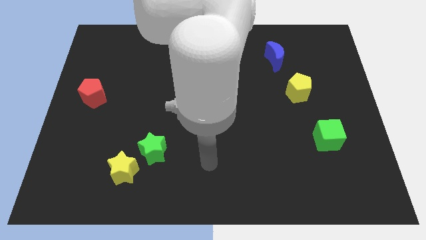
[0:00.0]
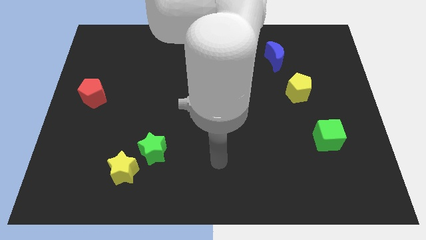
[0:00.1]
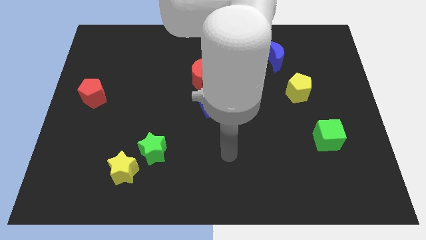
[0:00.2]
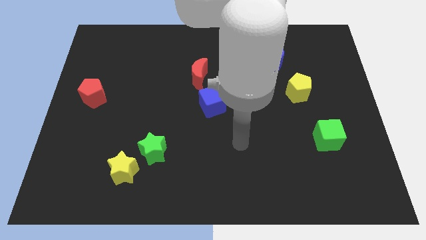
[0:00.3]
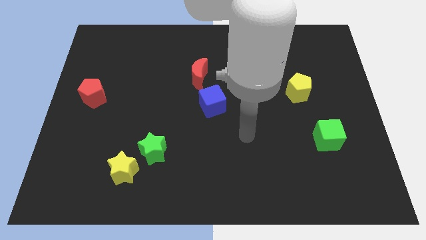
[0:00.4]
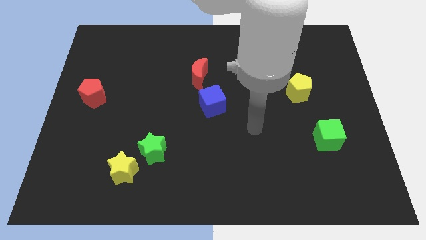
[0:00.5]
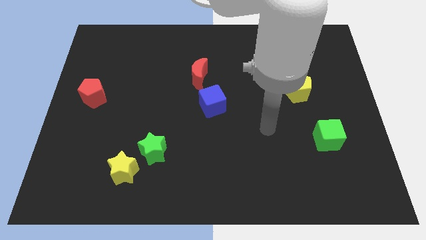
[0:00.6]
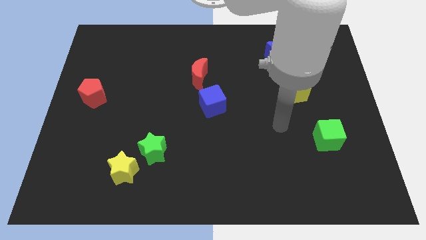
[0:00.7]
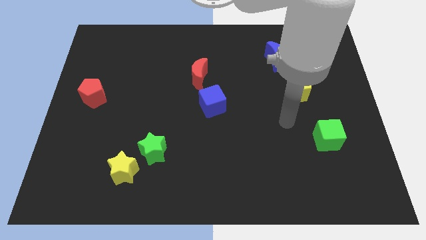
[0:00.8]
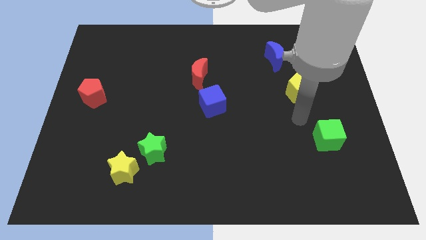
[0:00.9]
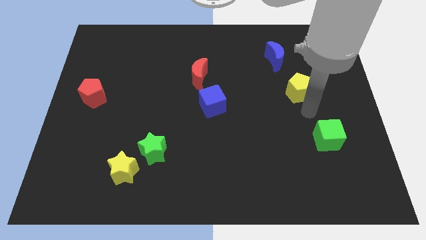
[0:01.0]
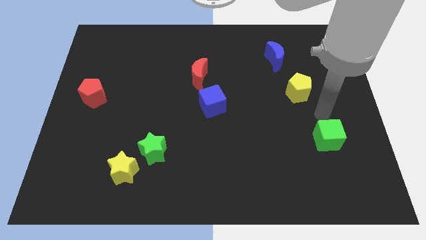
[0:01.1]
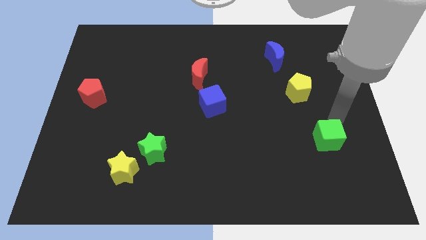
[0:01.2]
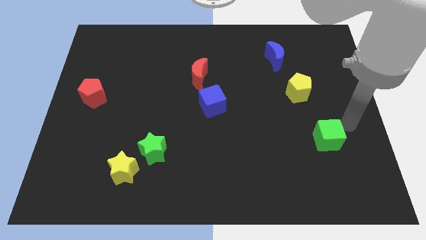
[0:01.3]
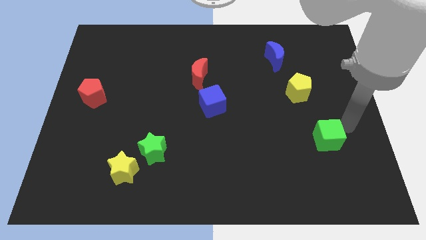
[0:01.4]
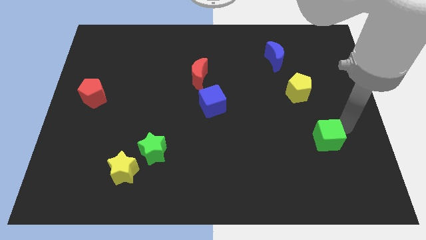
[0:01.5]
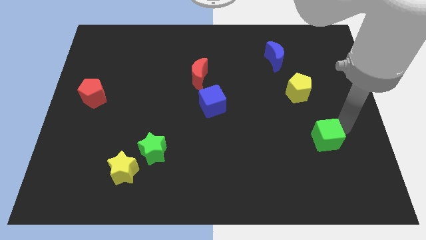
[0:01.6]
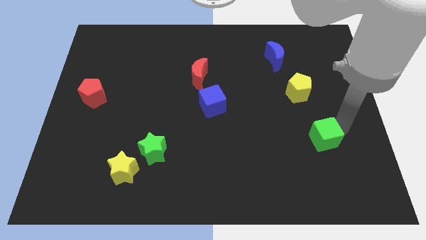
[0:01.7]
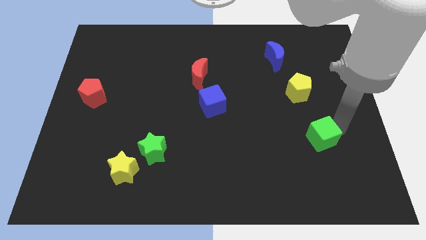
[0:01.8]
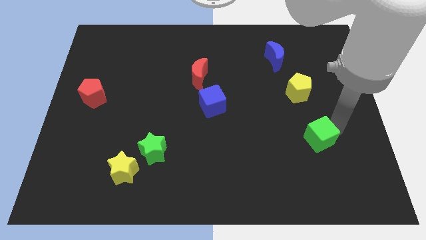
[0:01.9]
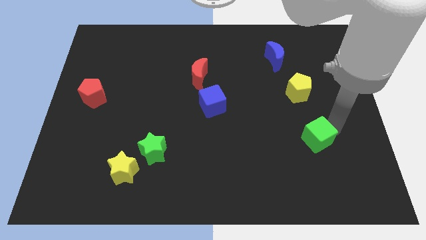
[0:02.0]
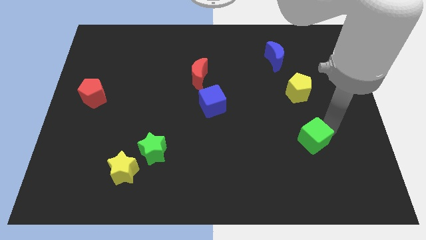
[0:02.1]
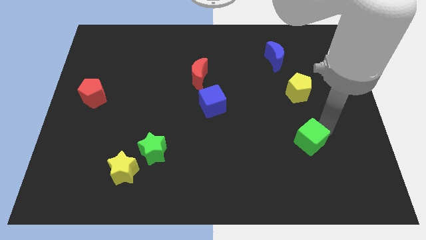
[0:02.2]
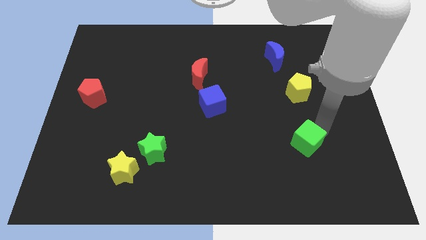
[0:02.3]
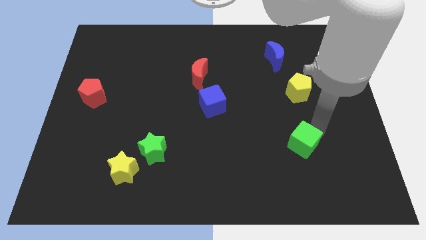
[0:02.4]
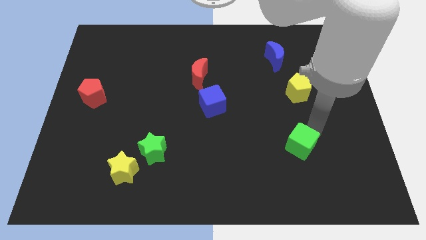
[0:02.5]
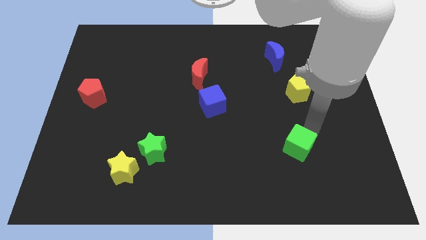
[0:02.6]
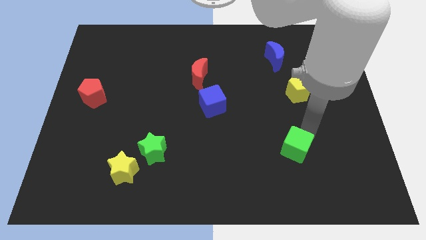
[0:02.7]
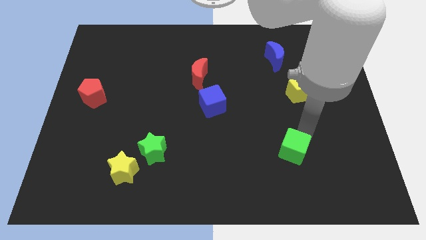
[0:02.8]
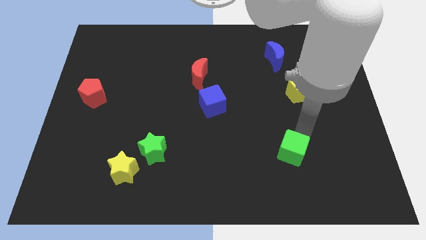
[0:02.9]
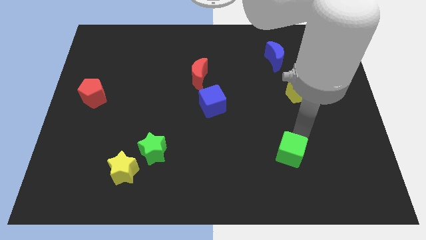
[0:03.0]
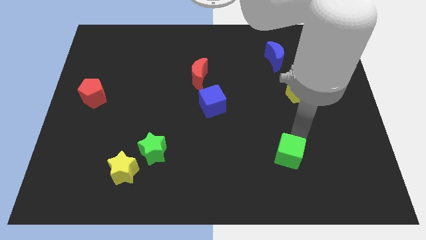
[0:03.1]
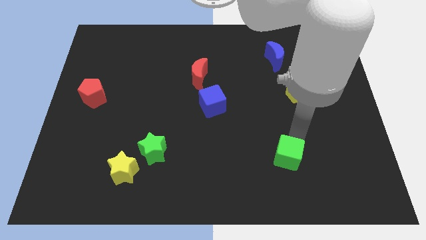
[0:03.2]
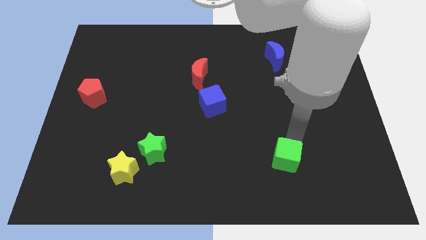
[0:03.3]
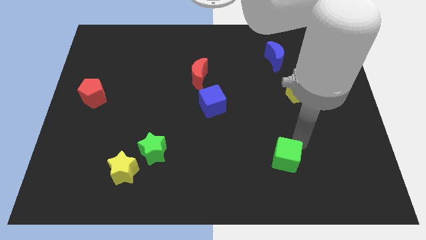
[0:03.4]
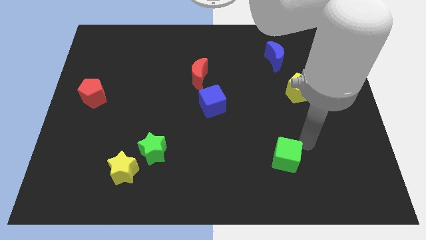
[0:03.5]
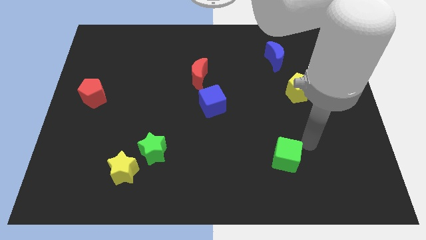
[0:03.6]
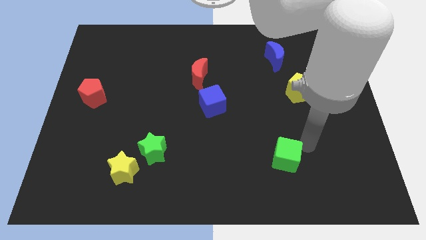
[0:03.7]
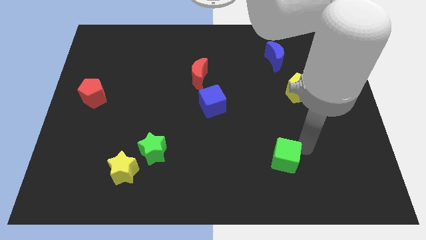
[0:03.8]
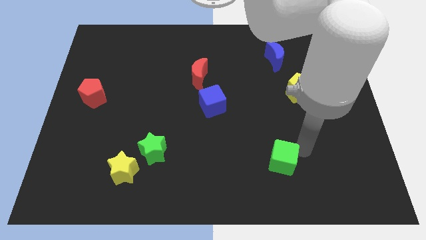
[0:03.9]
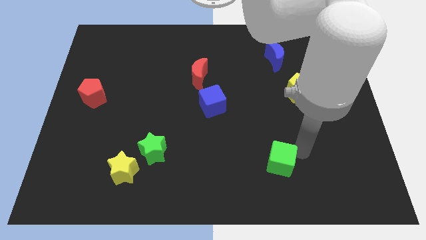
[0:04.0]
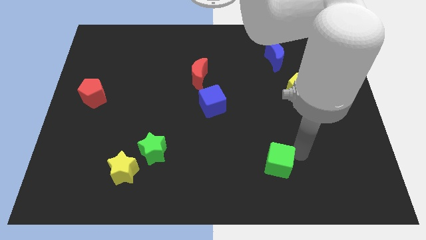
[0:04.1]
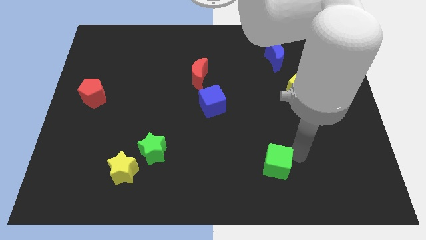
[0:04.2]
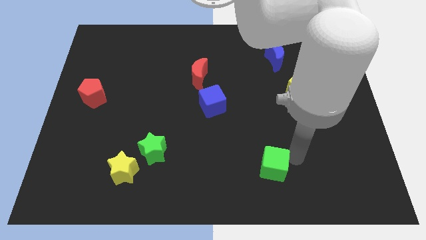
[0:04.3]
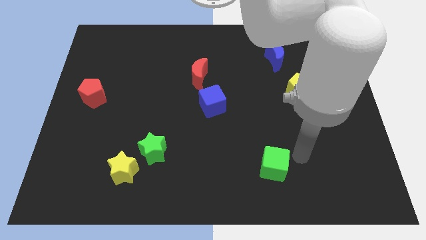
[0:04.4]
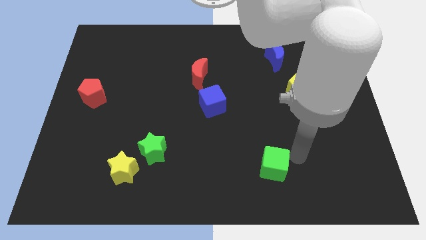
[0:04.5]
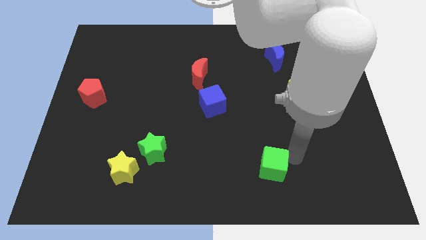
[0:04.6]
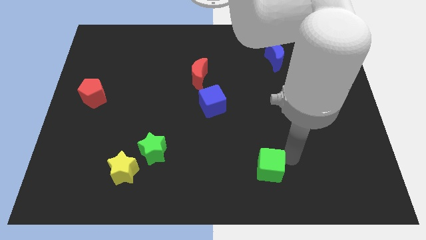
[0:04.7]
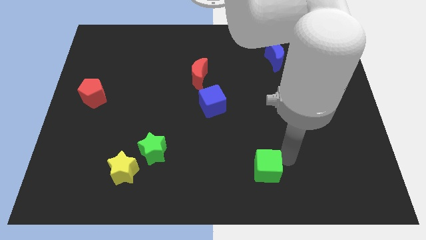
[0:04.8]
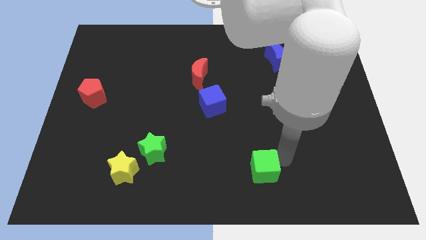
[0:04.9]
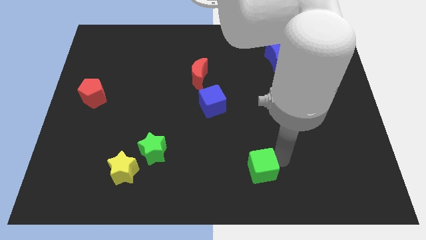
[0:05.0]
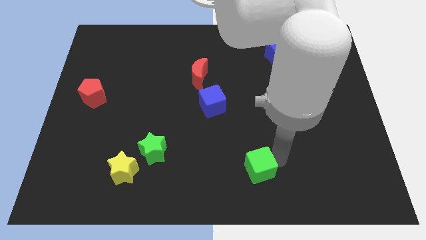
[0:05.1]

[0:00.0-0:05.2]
push the green cube to the bottom
